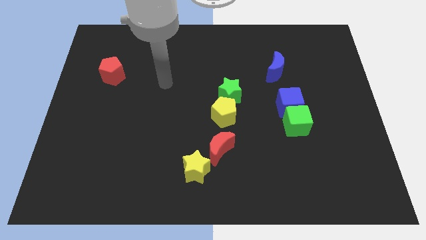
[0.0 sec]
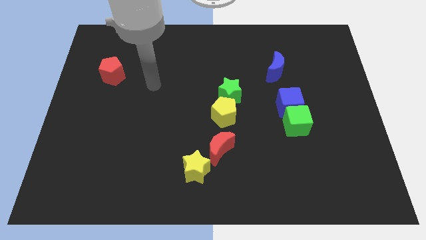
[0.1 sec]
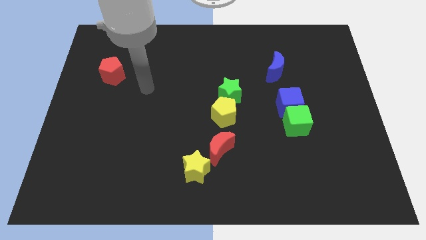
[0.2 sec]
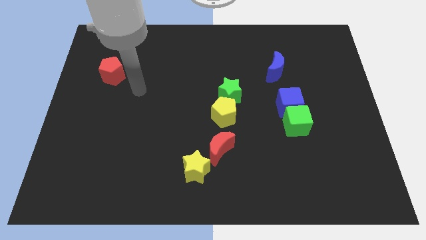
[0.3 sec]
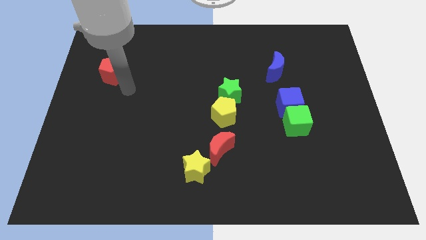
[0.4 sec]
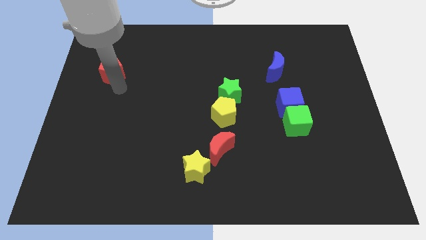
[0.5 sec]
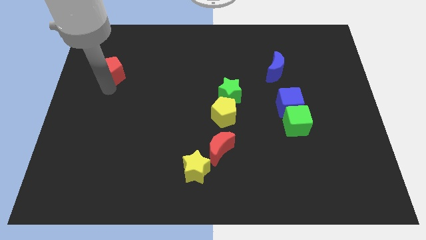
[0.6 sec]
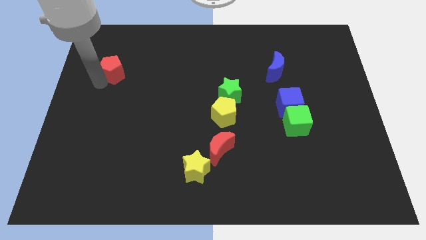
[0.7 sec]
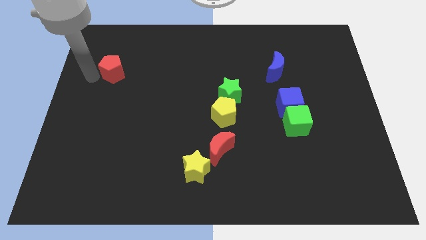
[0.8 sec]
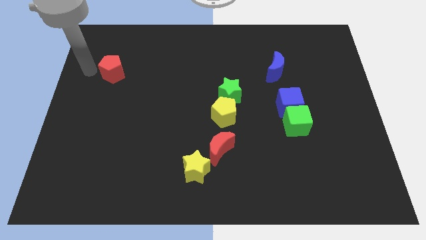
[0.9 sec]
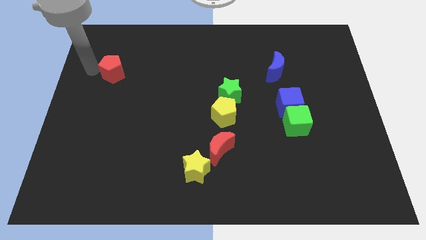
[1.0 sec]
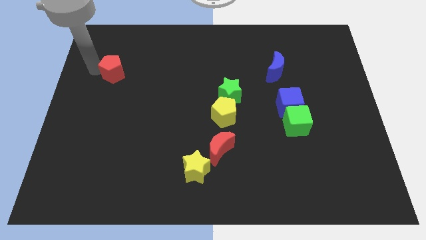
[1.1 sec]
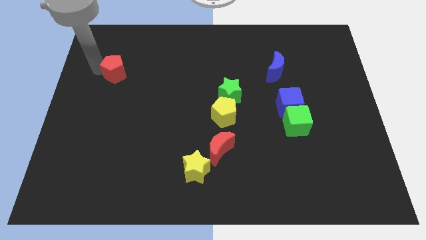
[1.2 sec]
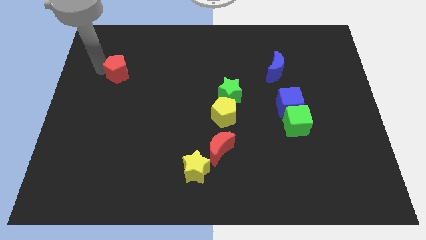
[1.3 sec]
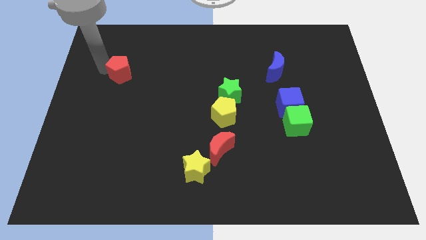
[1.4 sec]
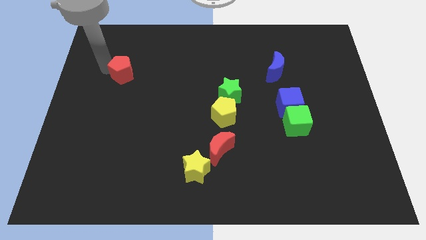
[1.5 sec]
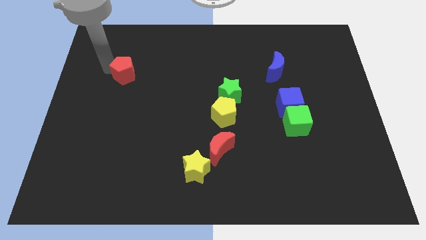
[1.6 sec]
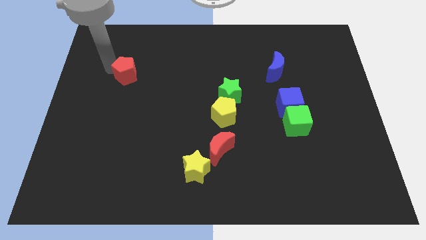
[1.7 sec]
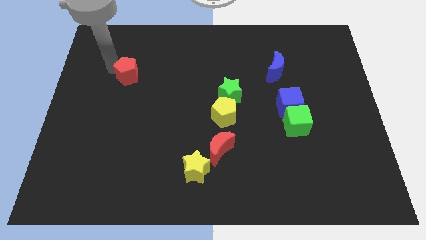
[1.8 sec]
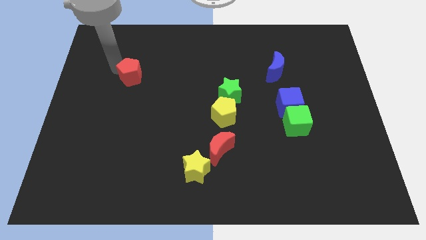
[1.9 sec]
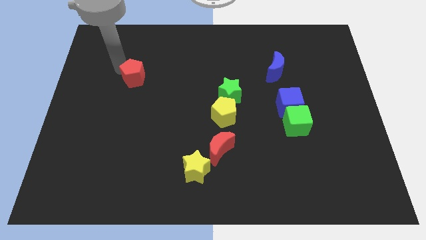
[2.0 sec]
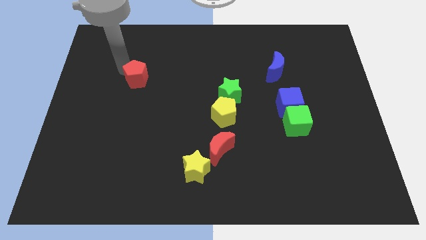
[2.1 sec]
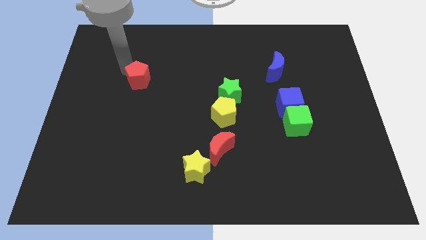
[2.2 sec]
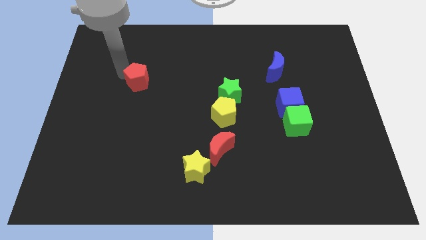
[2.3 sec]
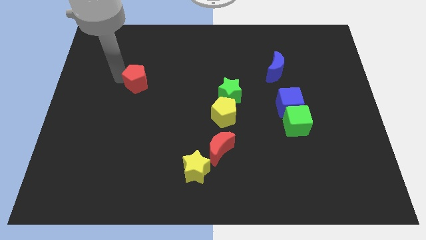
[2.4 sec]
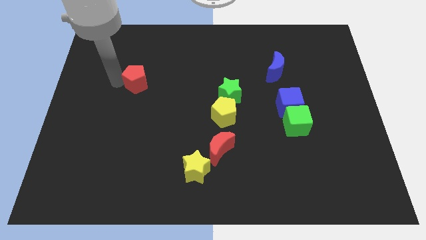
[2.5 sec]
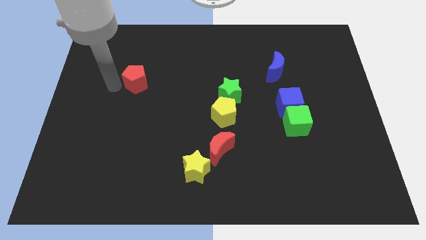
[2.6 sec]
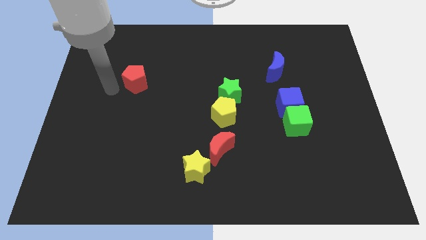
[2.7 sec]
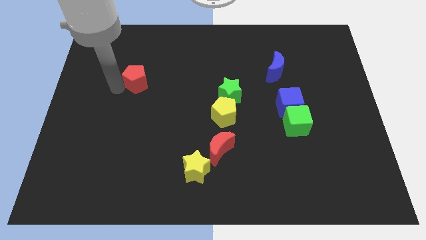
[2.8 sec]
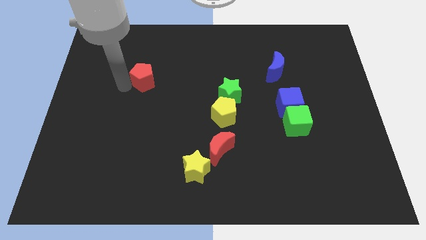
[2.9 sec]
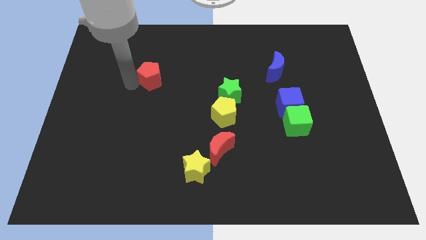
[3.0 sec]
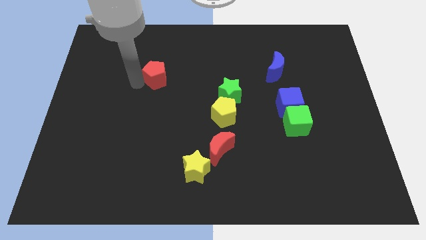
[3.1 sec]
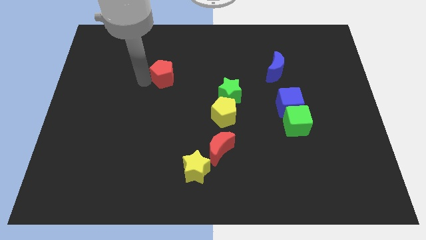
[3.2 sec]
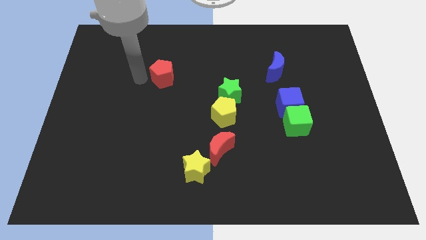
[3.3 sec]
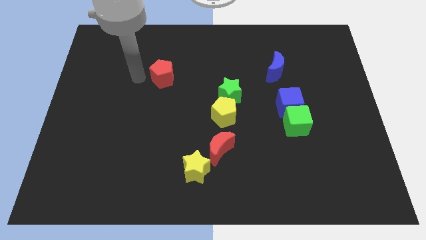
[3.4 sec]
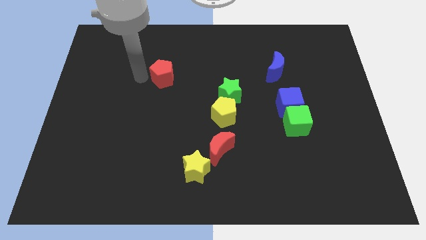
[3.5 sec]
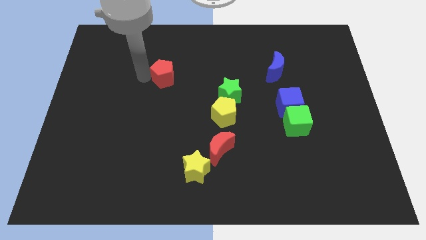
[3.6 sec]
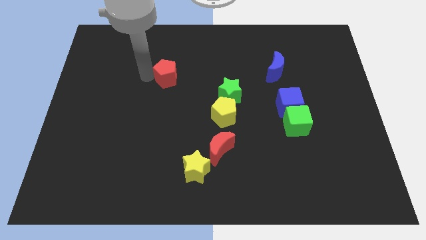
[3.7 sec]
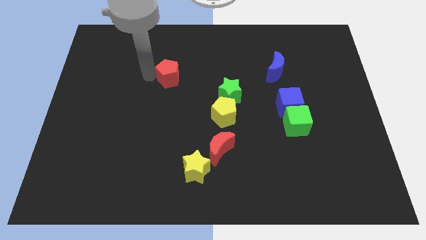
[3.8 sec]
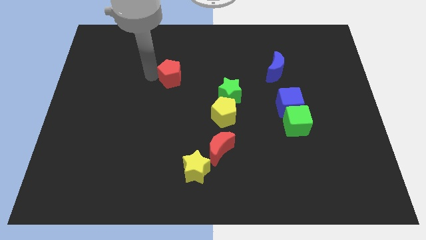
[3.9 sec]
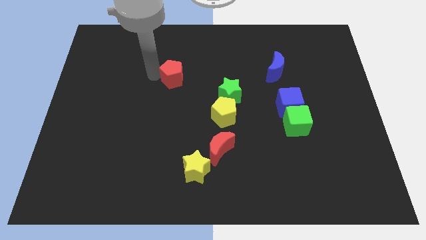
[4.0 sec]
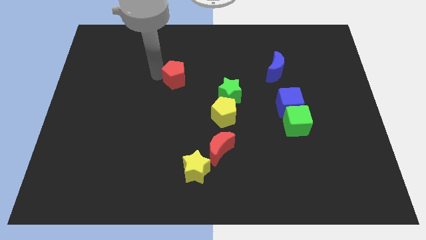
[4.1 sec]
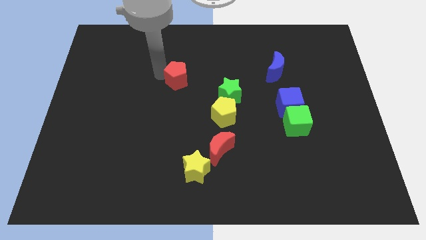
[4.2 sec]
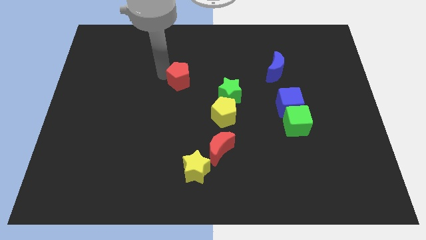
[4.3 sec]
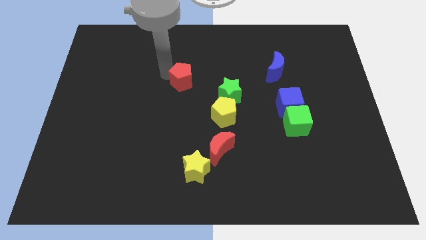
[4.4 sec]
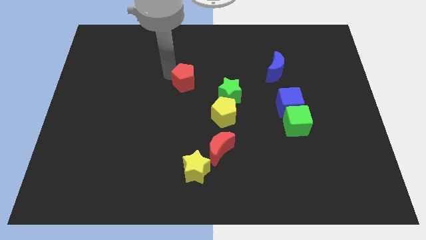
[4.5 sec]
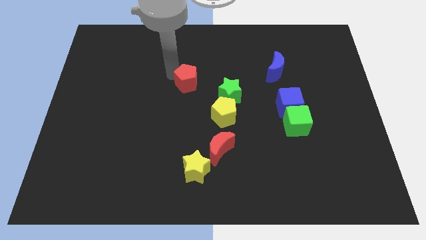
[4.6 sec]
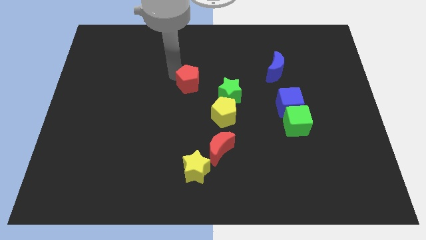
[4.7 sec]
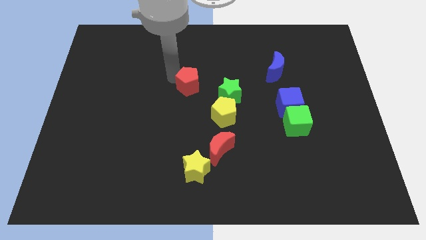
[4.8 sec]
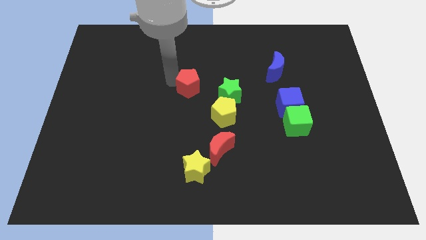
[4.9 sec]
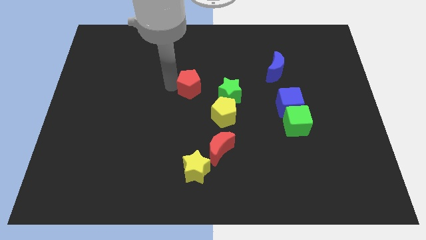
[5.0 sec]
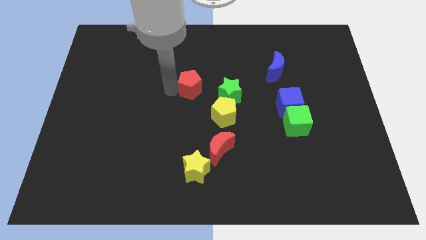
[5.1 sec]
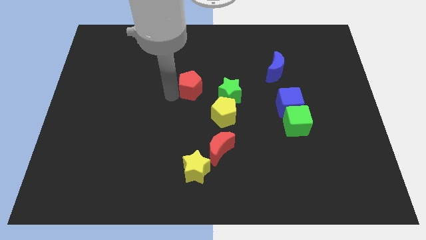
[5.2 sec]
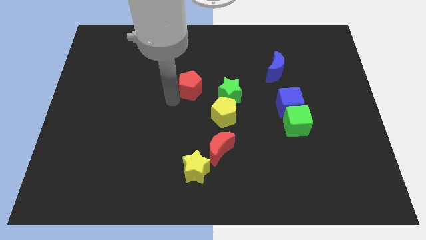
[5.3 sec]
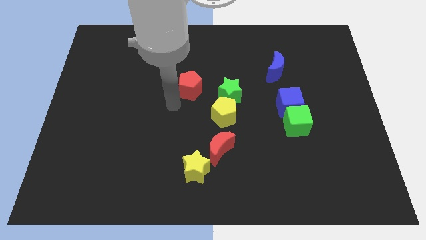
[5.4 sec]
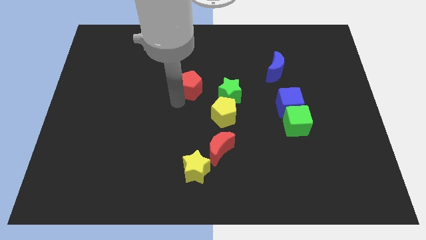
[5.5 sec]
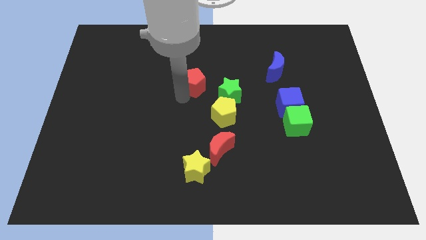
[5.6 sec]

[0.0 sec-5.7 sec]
push the red pentagon right

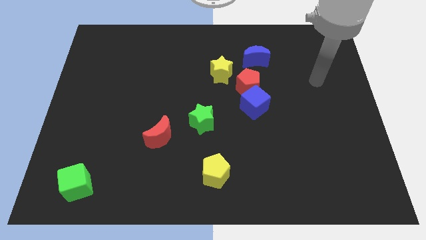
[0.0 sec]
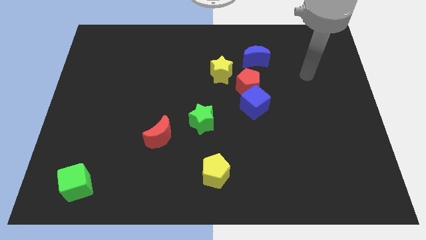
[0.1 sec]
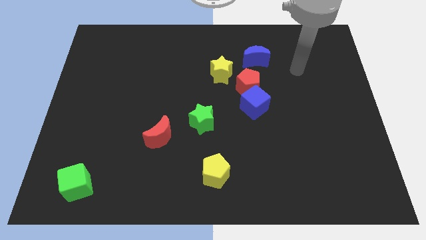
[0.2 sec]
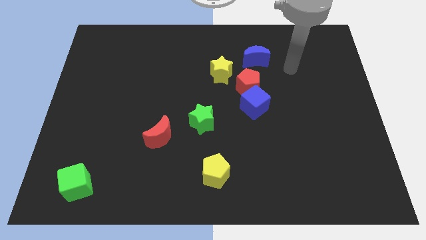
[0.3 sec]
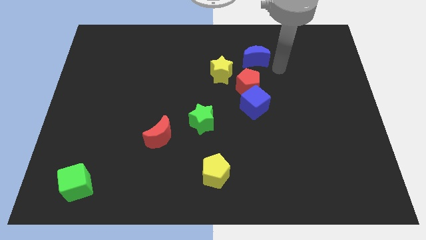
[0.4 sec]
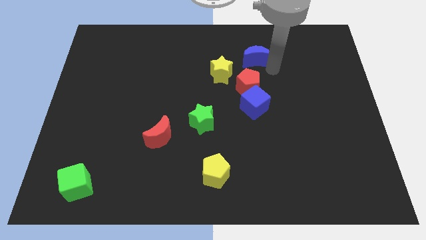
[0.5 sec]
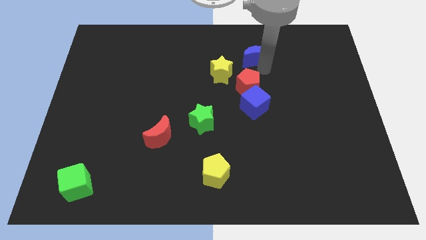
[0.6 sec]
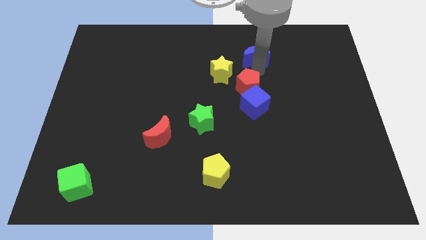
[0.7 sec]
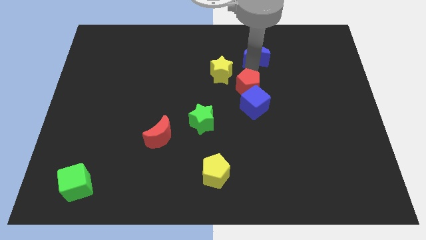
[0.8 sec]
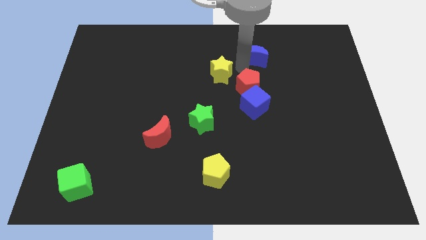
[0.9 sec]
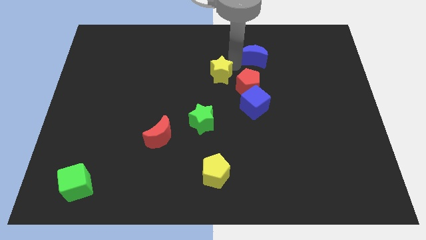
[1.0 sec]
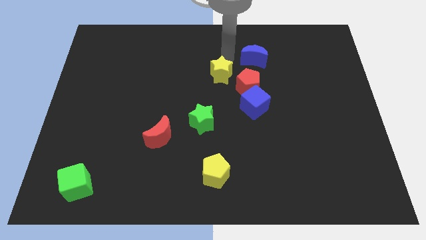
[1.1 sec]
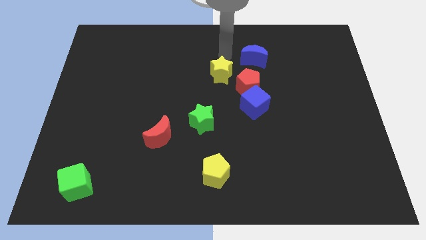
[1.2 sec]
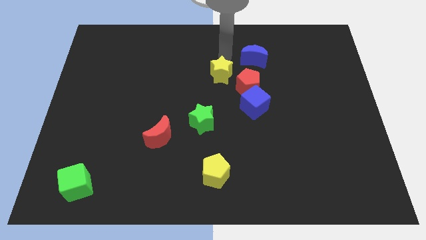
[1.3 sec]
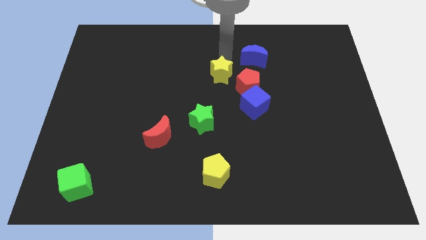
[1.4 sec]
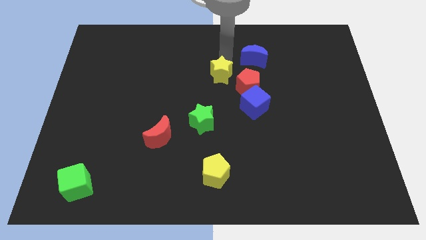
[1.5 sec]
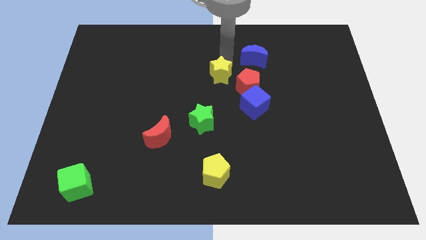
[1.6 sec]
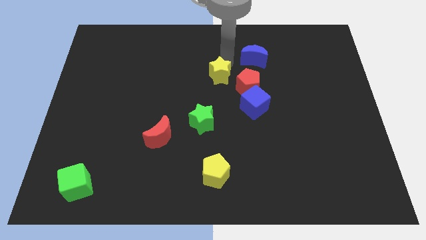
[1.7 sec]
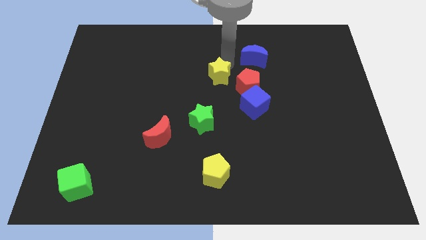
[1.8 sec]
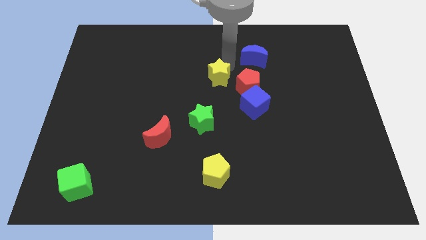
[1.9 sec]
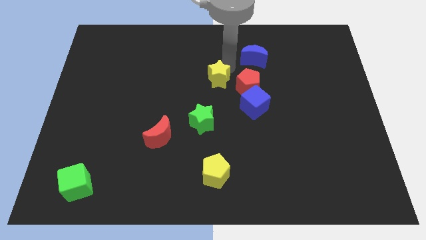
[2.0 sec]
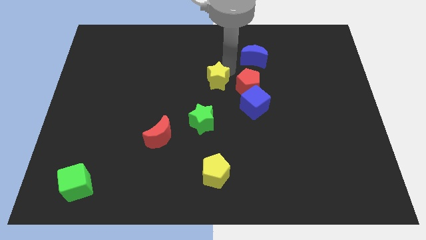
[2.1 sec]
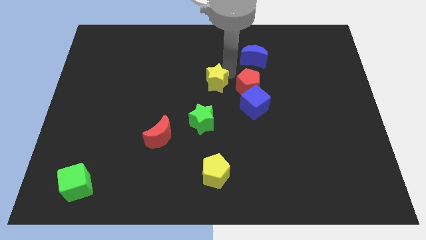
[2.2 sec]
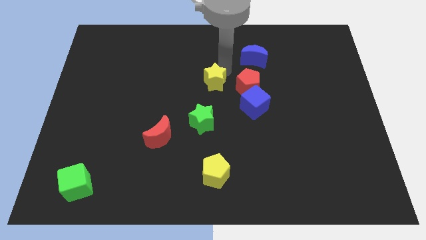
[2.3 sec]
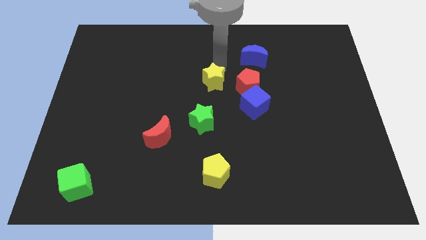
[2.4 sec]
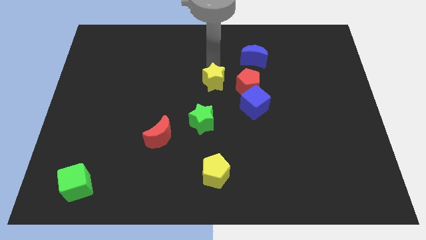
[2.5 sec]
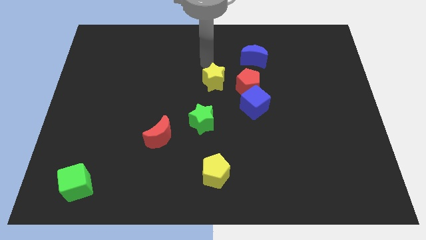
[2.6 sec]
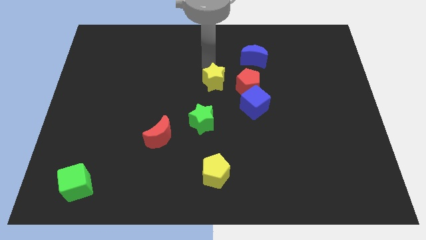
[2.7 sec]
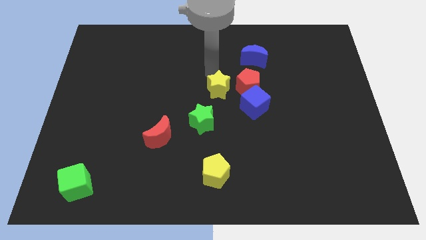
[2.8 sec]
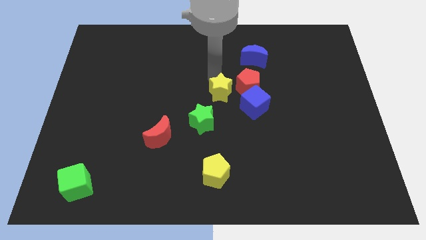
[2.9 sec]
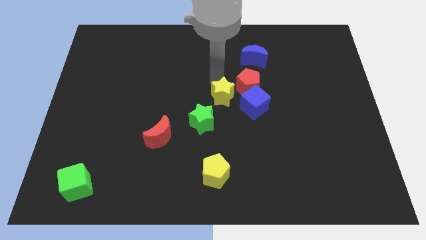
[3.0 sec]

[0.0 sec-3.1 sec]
slide the yellow star somewhat downwards
